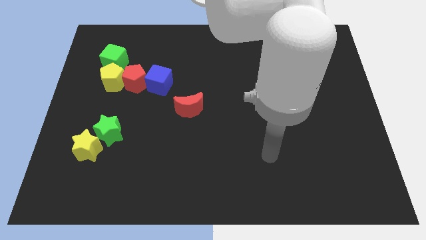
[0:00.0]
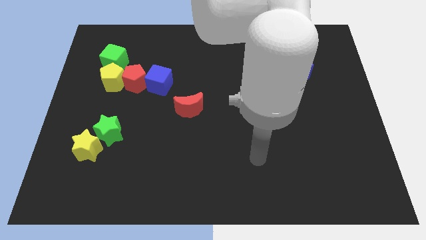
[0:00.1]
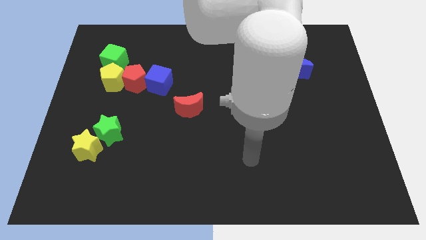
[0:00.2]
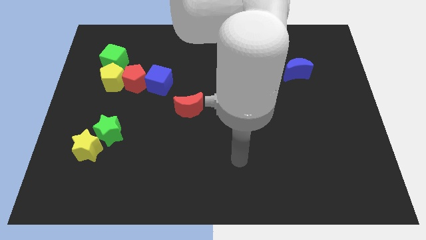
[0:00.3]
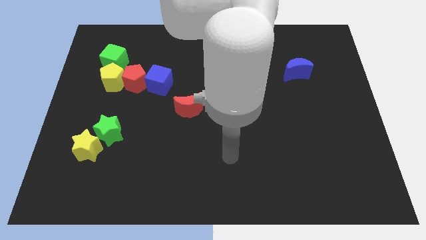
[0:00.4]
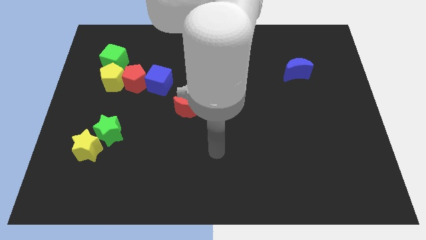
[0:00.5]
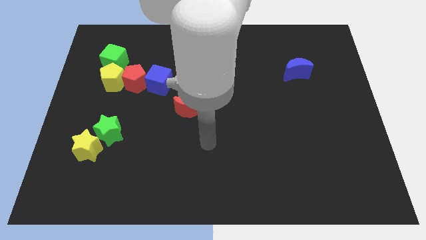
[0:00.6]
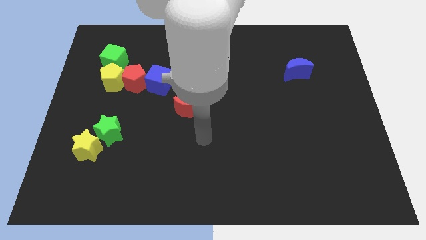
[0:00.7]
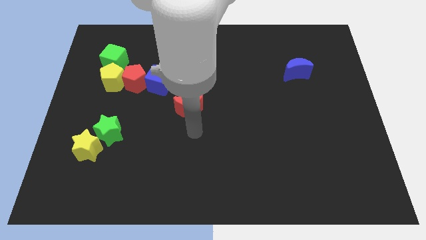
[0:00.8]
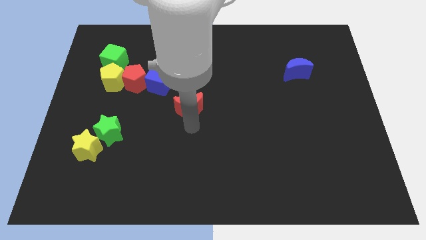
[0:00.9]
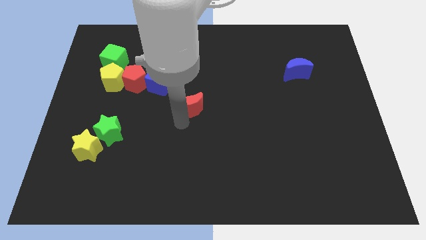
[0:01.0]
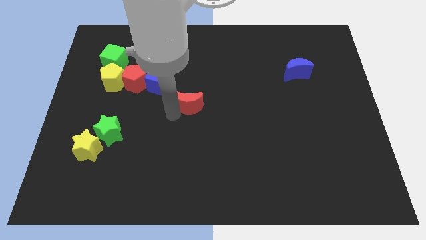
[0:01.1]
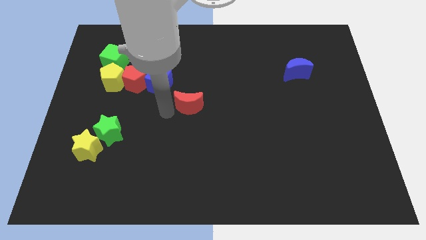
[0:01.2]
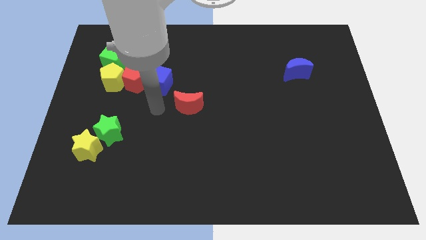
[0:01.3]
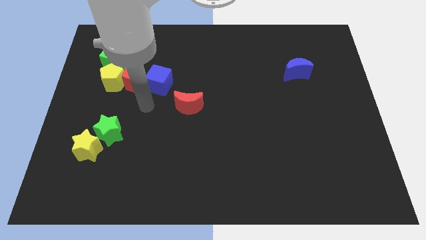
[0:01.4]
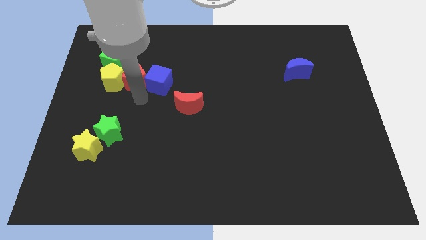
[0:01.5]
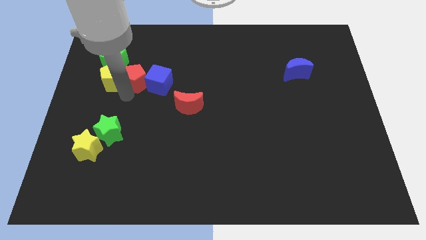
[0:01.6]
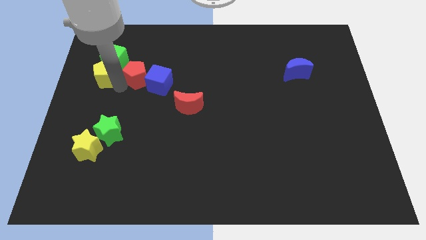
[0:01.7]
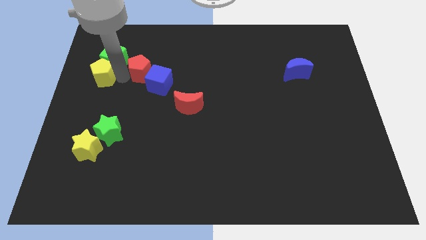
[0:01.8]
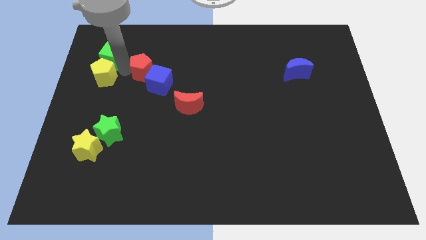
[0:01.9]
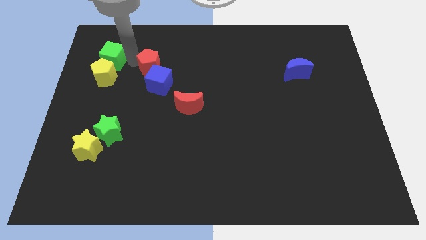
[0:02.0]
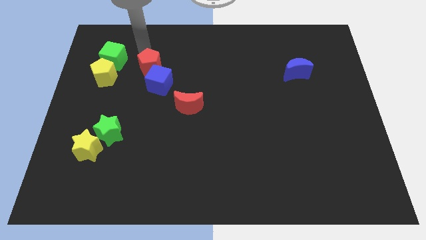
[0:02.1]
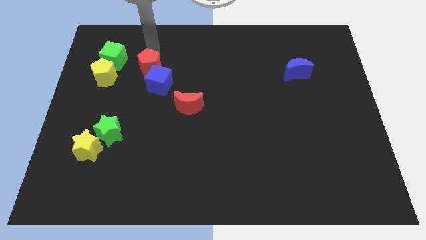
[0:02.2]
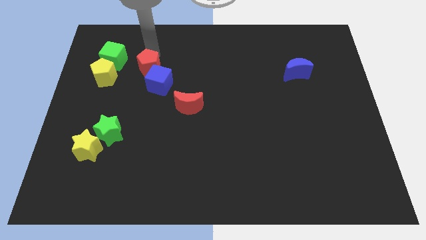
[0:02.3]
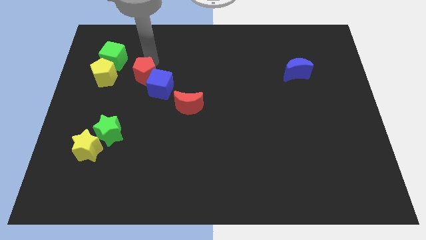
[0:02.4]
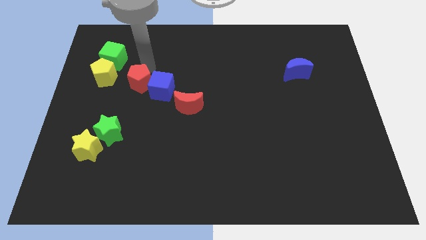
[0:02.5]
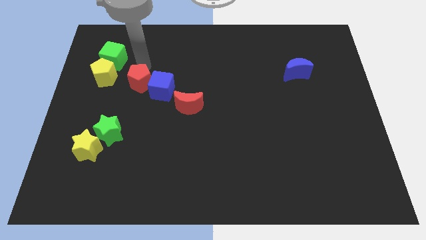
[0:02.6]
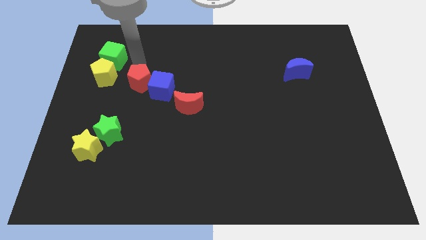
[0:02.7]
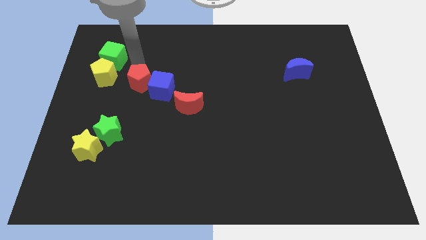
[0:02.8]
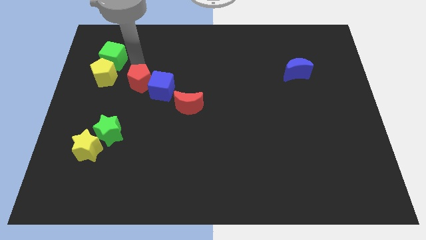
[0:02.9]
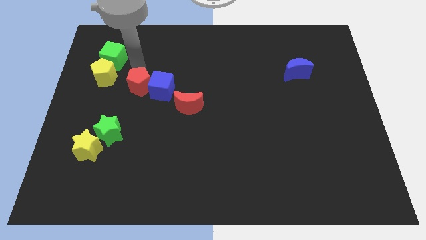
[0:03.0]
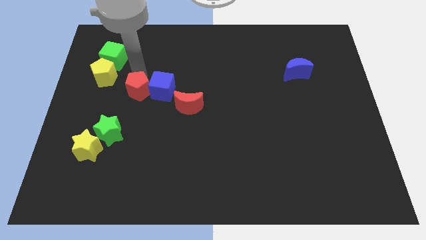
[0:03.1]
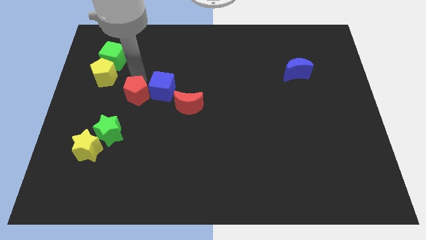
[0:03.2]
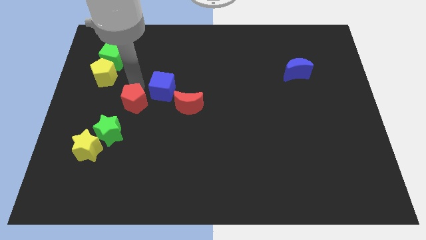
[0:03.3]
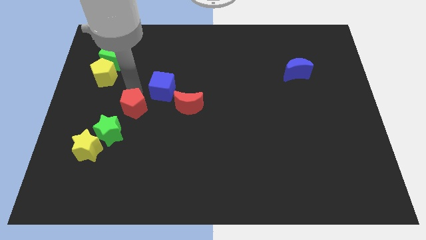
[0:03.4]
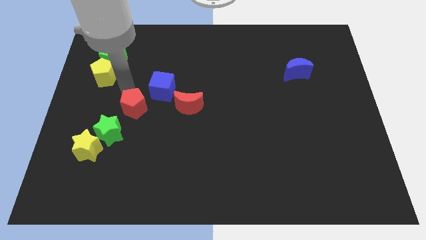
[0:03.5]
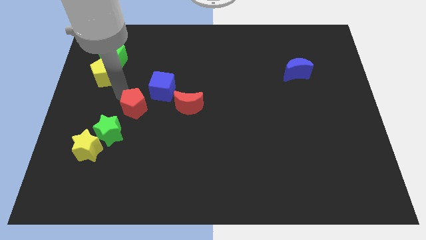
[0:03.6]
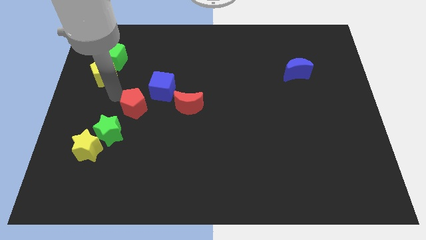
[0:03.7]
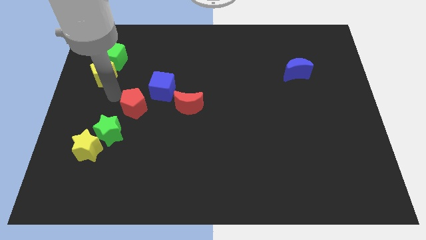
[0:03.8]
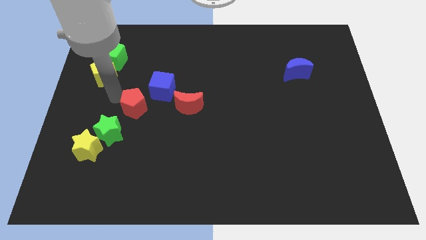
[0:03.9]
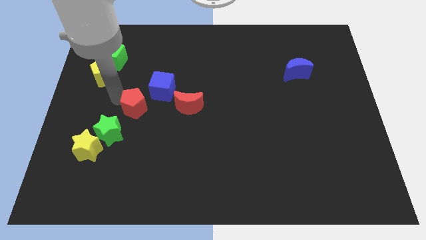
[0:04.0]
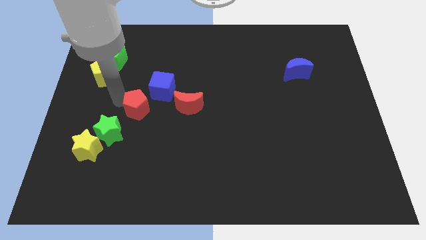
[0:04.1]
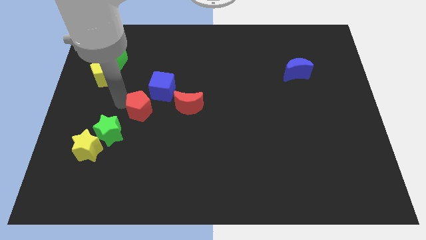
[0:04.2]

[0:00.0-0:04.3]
move the red pentagon somewhat down and then to the right

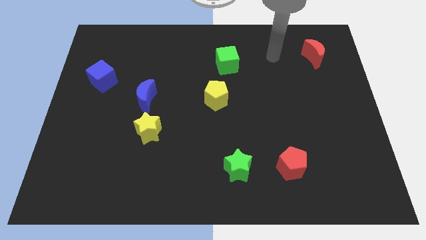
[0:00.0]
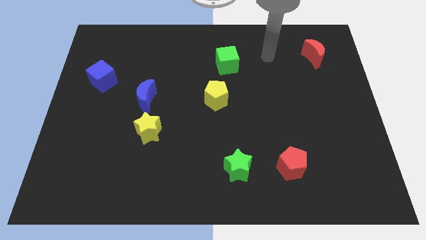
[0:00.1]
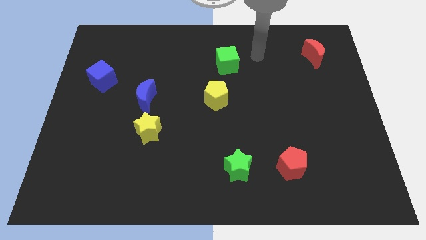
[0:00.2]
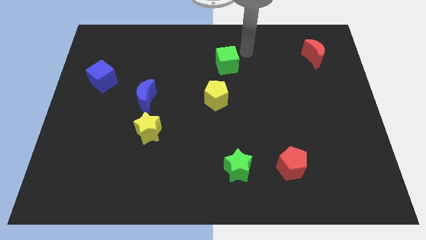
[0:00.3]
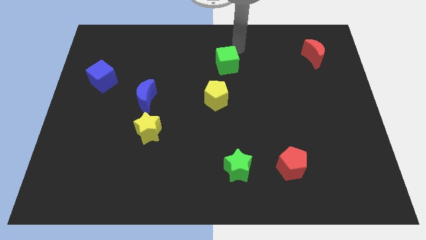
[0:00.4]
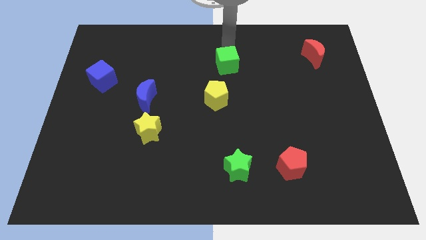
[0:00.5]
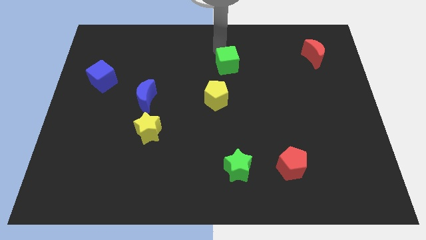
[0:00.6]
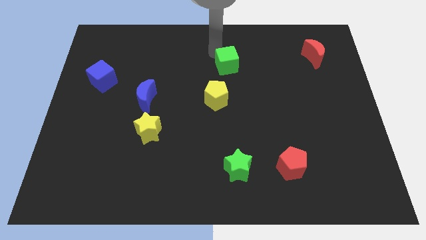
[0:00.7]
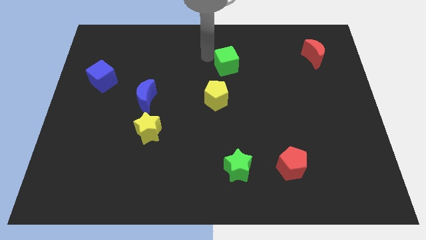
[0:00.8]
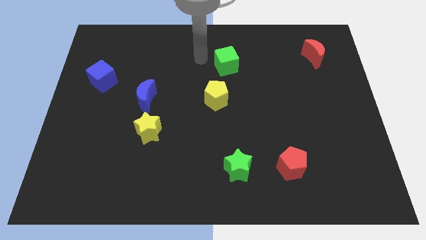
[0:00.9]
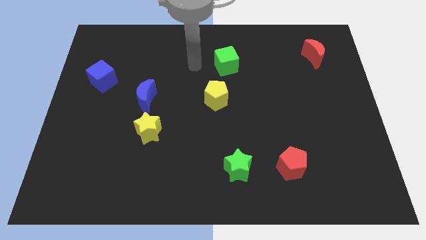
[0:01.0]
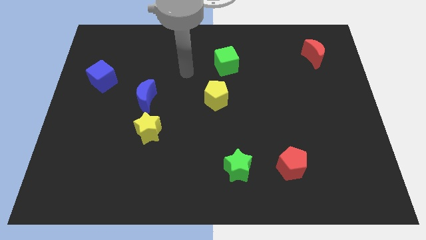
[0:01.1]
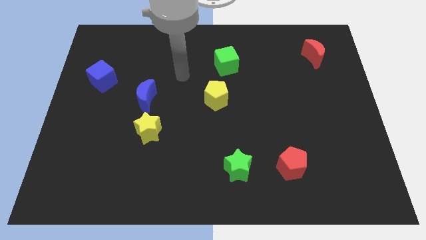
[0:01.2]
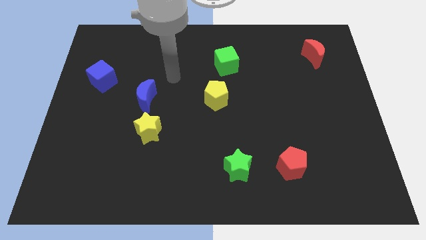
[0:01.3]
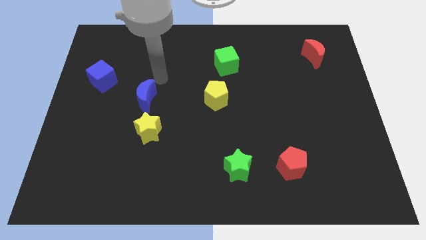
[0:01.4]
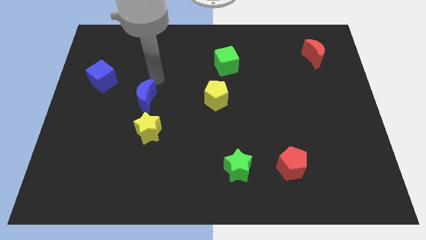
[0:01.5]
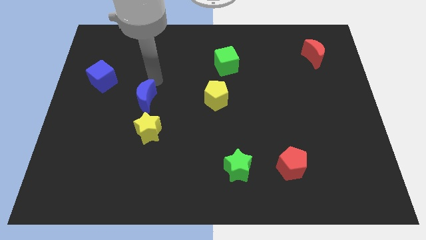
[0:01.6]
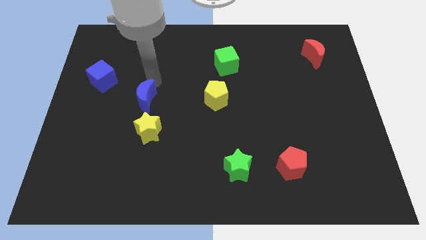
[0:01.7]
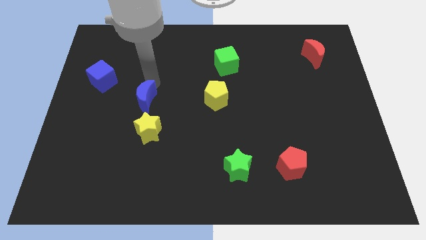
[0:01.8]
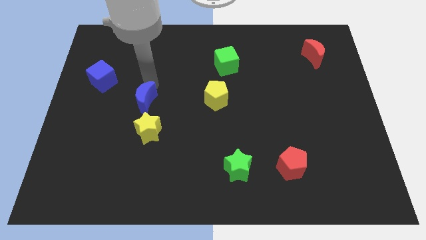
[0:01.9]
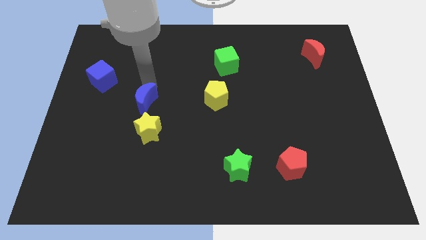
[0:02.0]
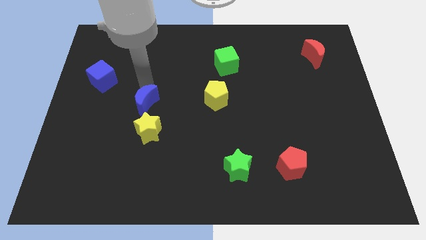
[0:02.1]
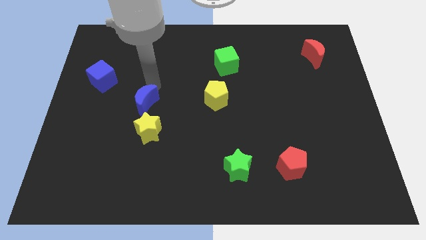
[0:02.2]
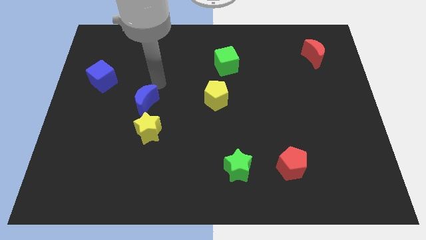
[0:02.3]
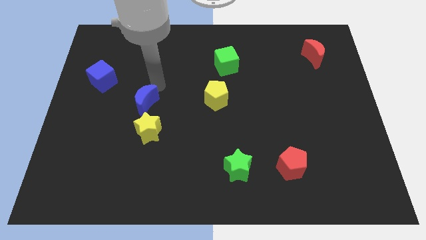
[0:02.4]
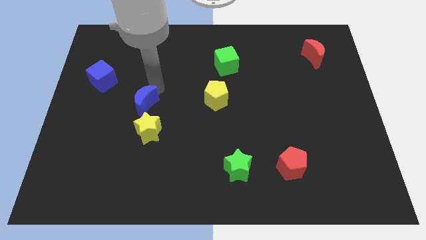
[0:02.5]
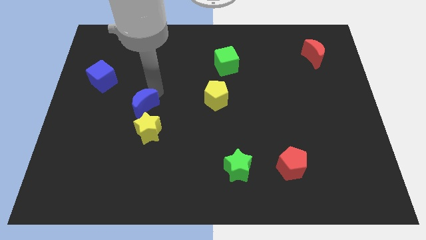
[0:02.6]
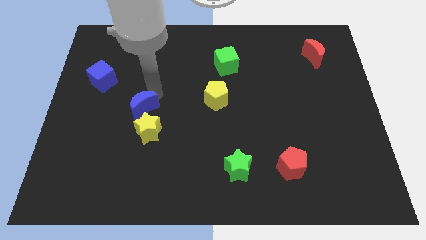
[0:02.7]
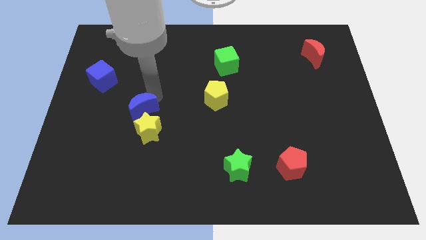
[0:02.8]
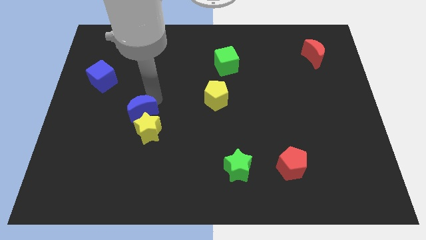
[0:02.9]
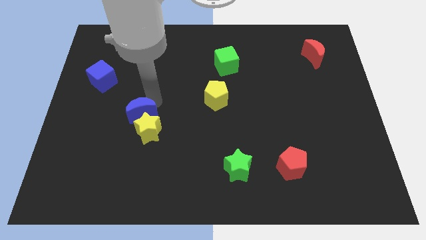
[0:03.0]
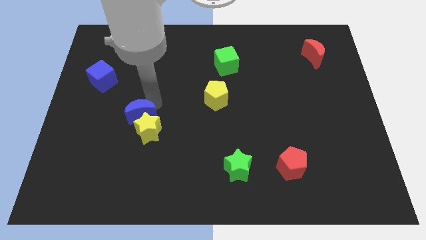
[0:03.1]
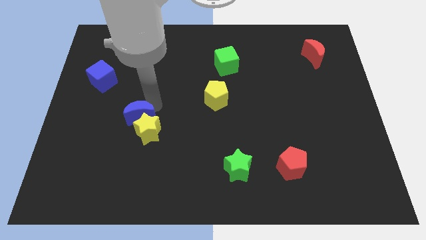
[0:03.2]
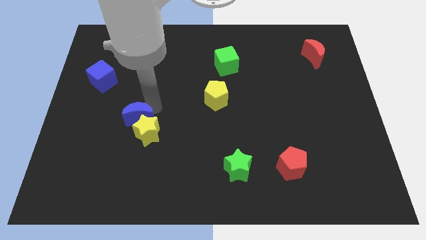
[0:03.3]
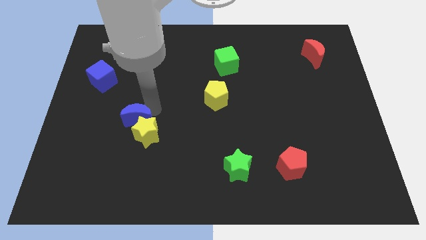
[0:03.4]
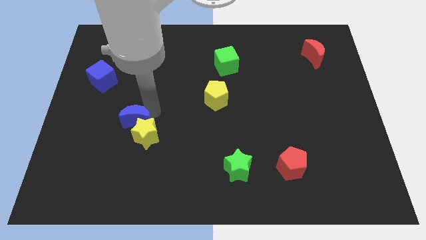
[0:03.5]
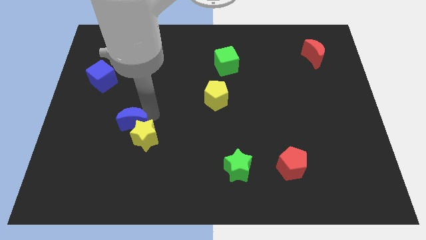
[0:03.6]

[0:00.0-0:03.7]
slightly push the blue moon downwards
